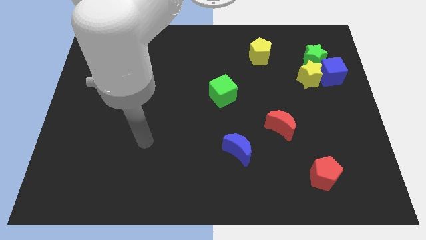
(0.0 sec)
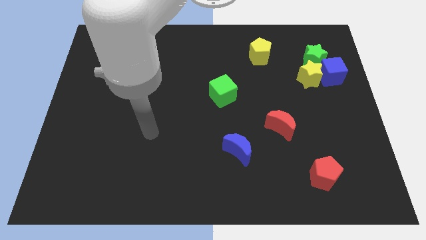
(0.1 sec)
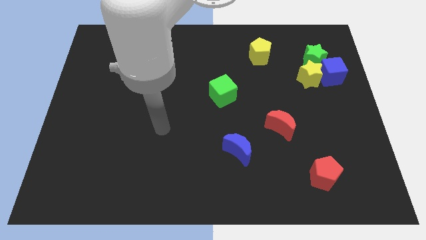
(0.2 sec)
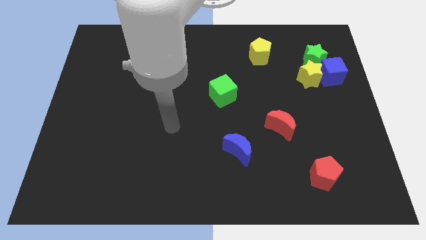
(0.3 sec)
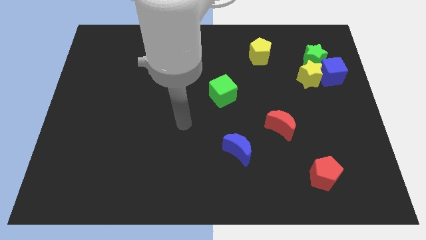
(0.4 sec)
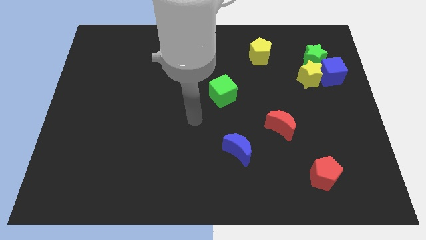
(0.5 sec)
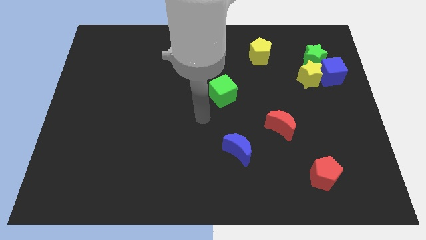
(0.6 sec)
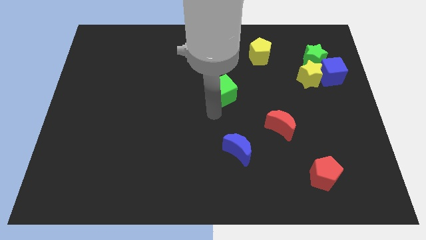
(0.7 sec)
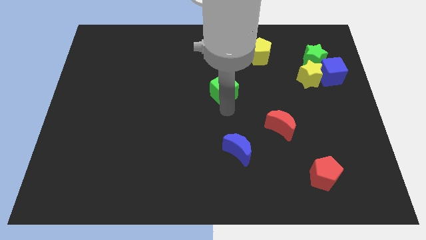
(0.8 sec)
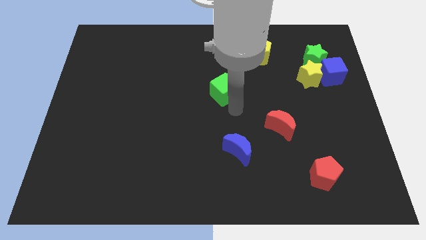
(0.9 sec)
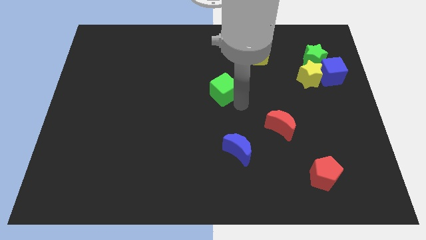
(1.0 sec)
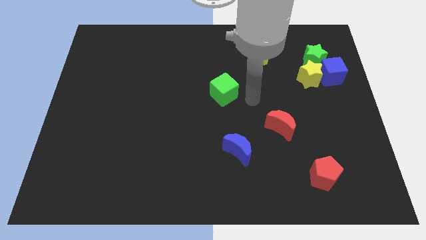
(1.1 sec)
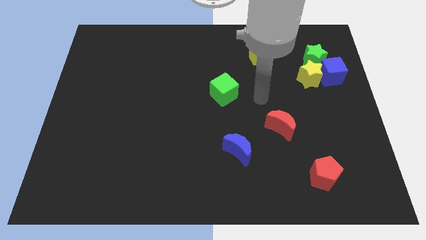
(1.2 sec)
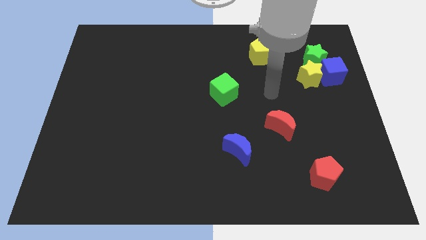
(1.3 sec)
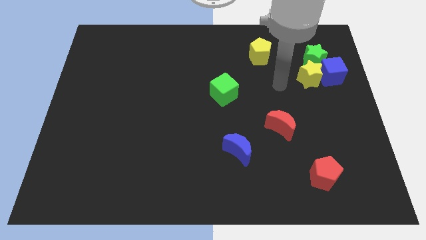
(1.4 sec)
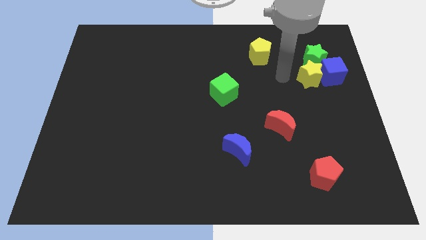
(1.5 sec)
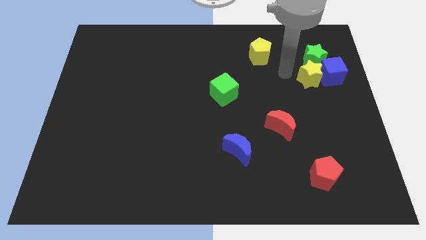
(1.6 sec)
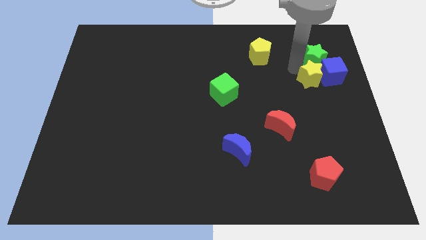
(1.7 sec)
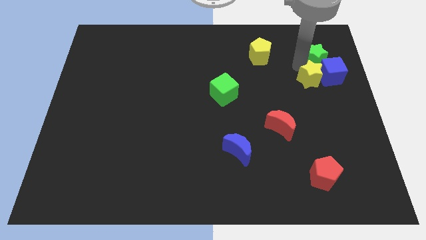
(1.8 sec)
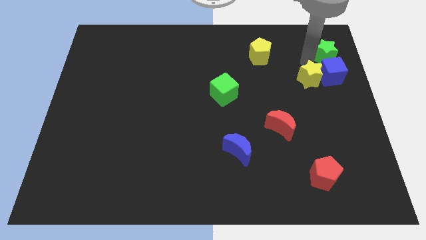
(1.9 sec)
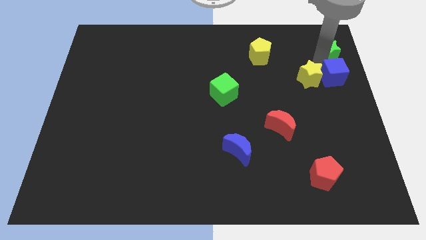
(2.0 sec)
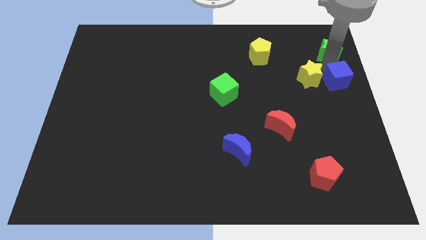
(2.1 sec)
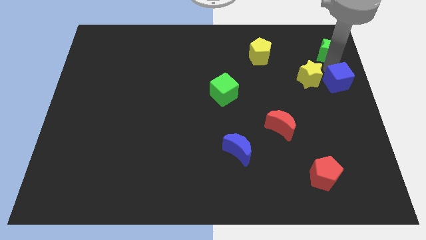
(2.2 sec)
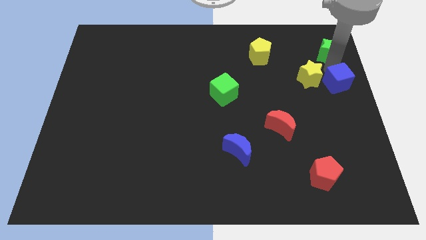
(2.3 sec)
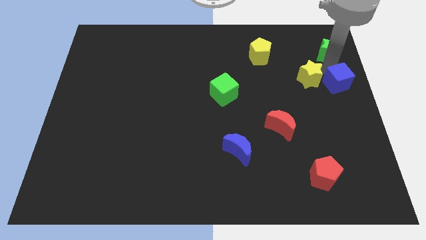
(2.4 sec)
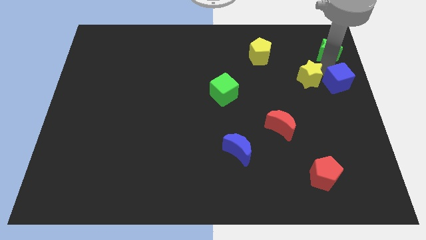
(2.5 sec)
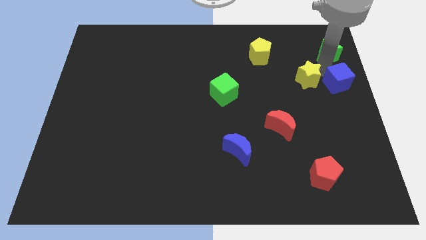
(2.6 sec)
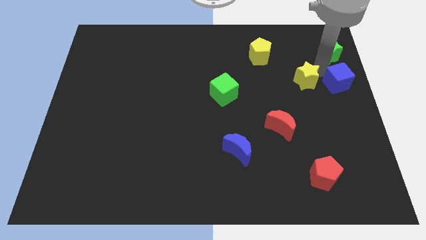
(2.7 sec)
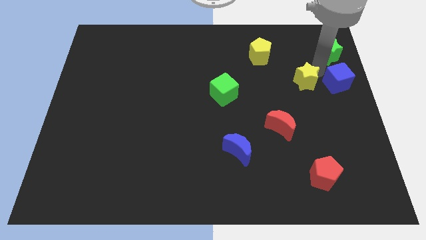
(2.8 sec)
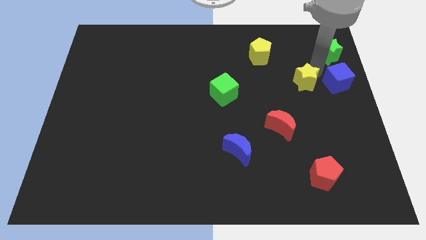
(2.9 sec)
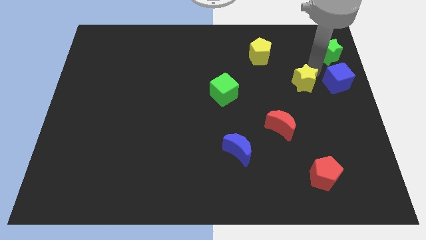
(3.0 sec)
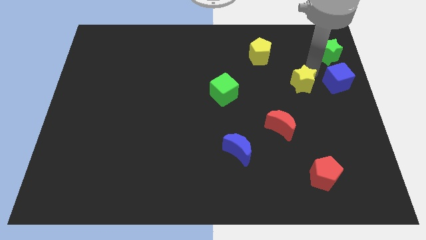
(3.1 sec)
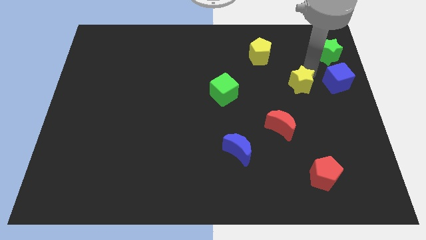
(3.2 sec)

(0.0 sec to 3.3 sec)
separate the yellow star from the blue cube and green star

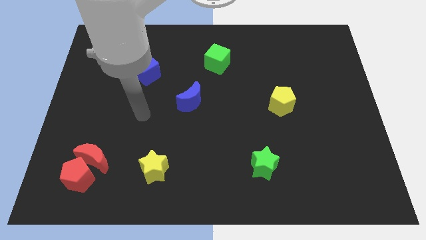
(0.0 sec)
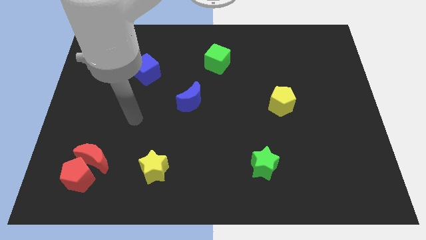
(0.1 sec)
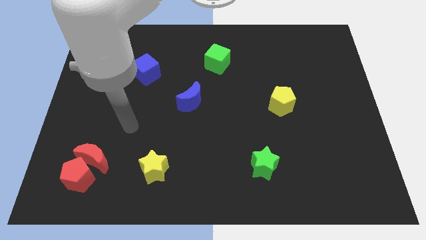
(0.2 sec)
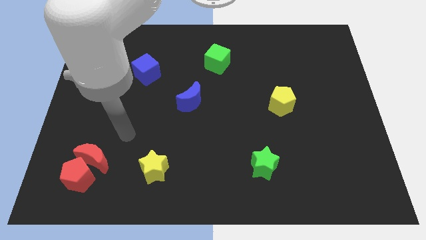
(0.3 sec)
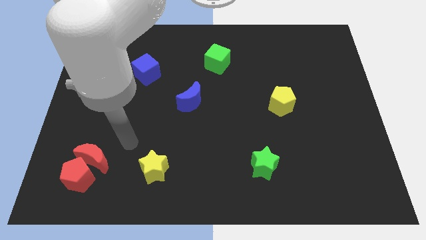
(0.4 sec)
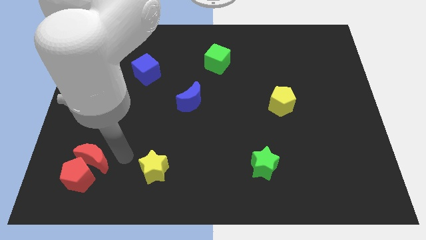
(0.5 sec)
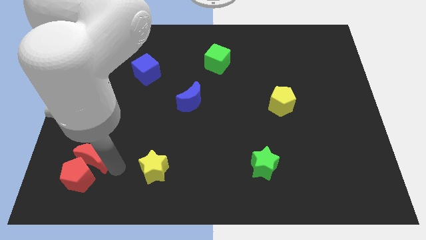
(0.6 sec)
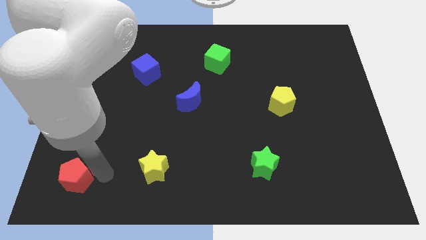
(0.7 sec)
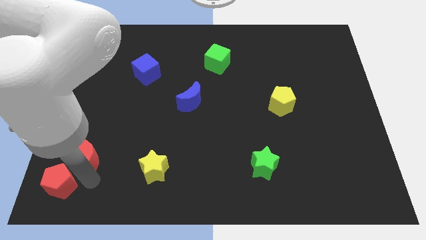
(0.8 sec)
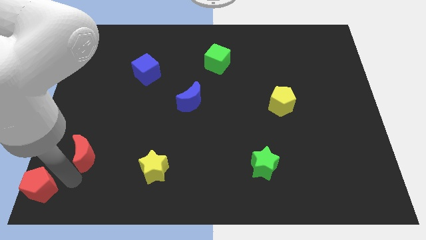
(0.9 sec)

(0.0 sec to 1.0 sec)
pull the red moon apart from the red pentagon

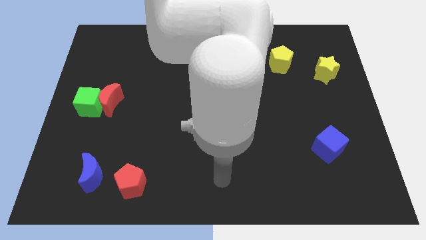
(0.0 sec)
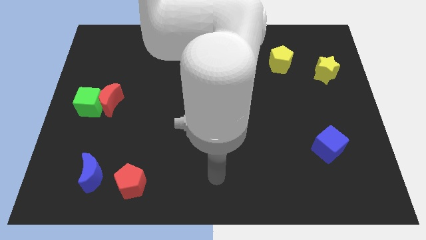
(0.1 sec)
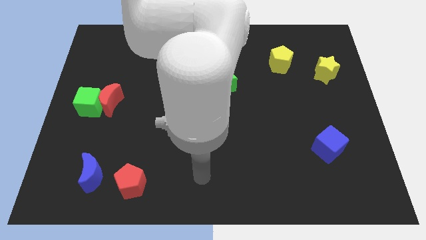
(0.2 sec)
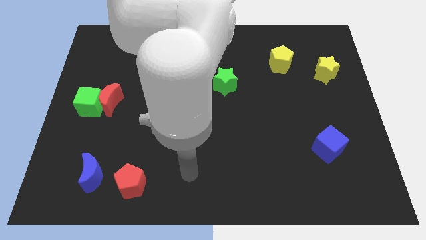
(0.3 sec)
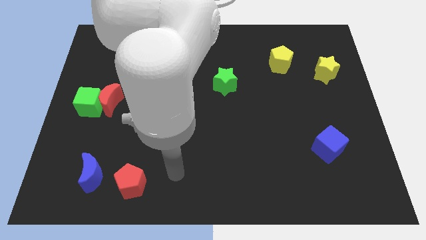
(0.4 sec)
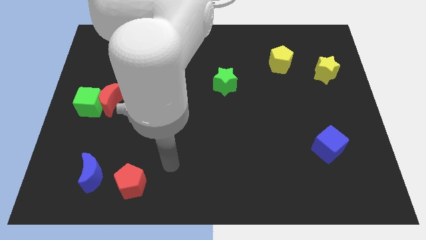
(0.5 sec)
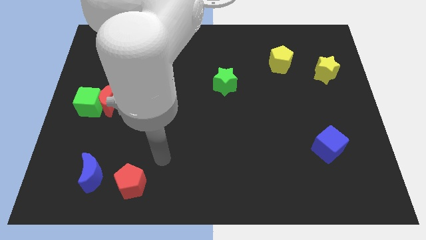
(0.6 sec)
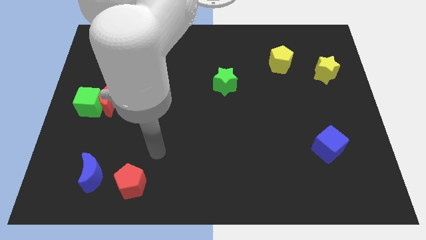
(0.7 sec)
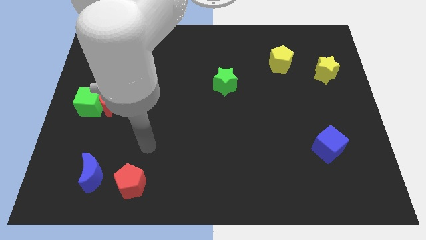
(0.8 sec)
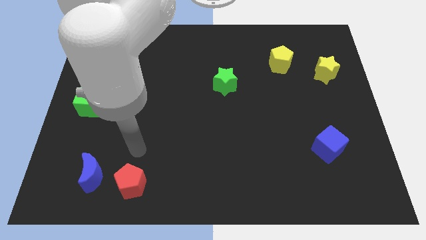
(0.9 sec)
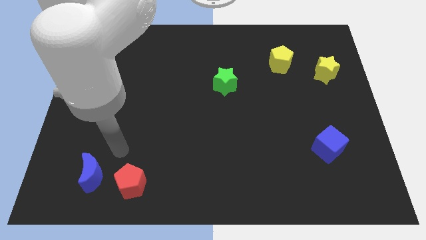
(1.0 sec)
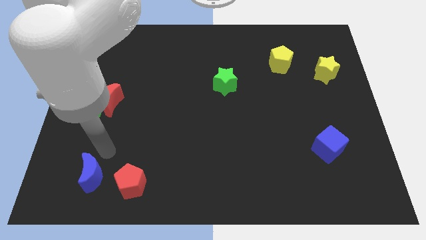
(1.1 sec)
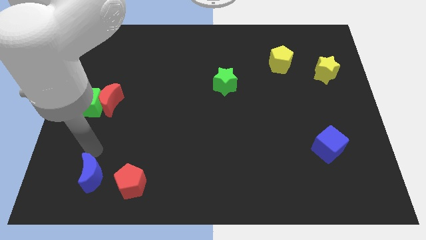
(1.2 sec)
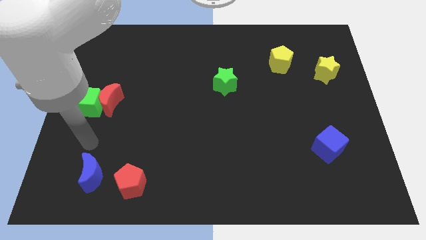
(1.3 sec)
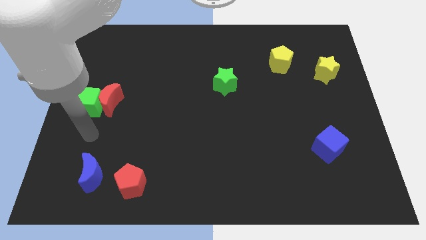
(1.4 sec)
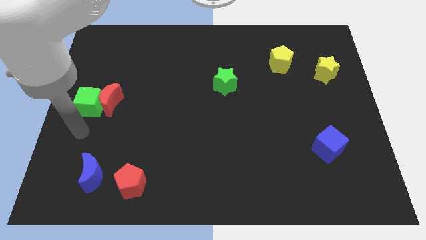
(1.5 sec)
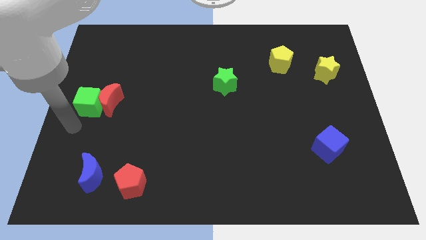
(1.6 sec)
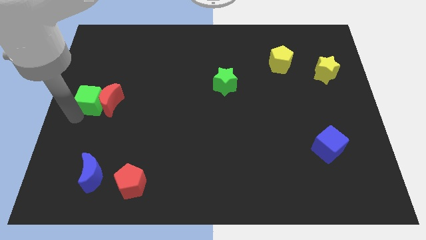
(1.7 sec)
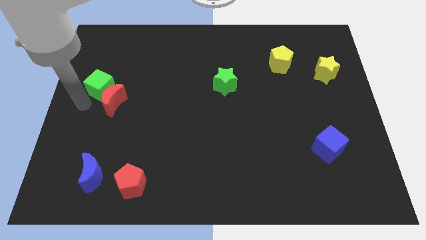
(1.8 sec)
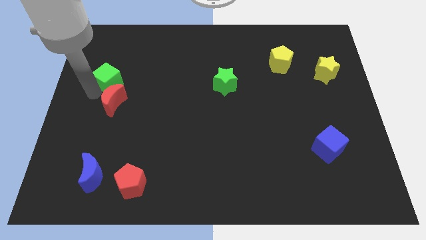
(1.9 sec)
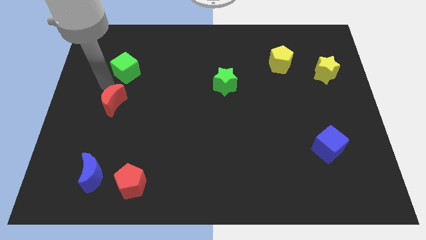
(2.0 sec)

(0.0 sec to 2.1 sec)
separate the red moon from the green cube

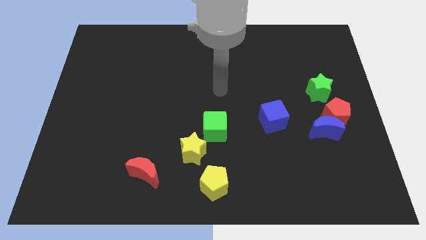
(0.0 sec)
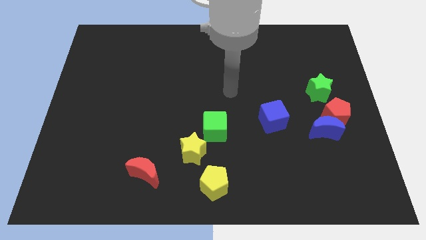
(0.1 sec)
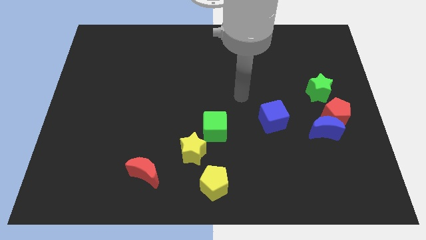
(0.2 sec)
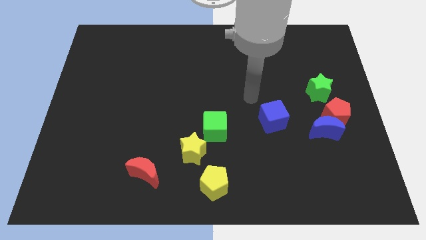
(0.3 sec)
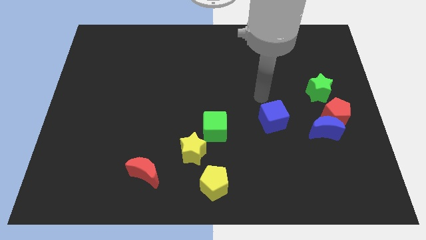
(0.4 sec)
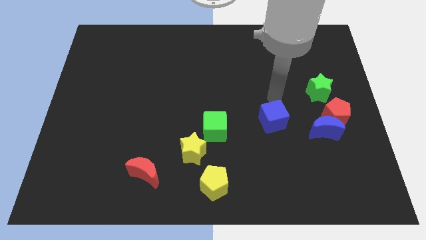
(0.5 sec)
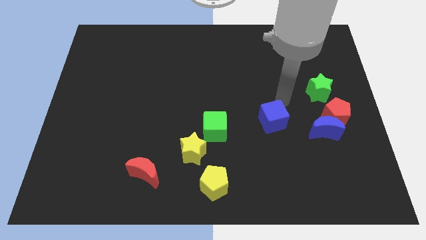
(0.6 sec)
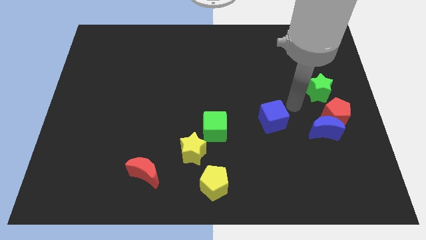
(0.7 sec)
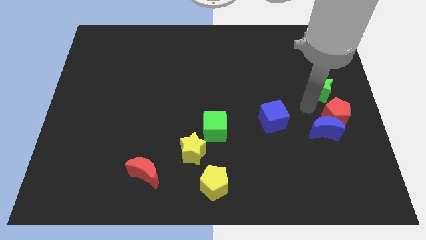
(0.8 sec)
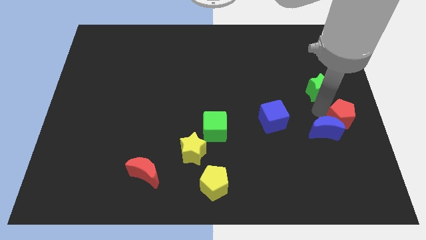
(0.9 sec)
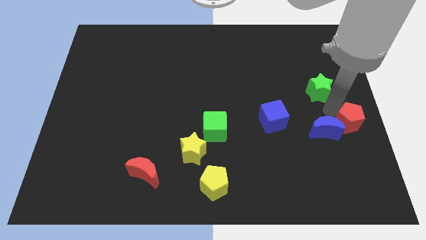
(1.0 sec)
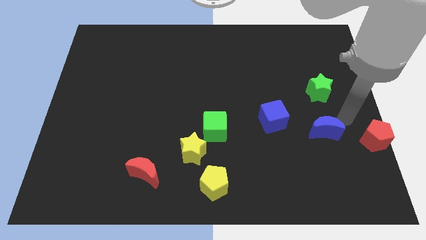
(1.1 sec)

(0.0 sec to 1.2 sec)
separate the blue moon from the red pentagon

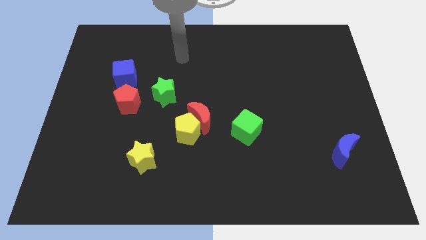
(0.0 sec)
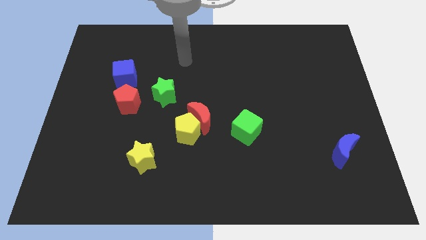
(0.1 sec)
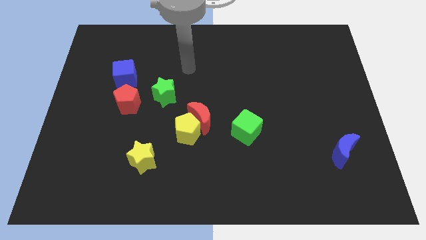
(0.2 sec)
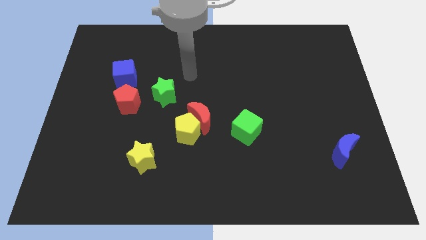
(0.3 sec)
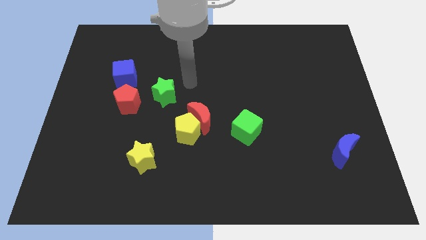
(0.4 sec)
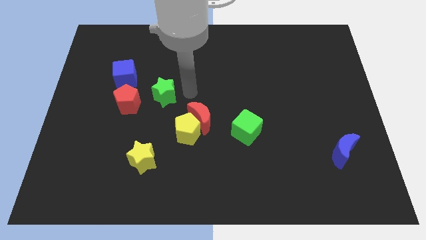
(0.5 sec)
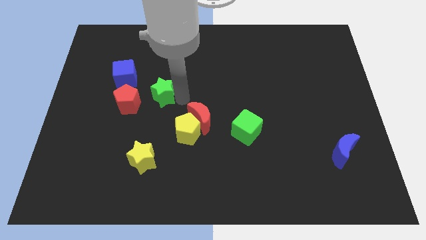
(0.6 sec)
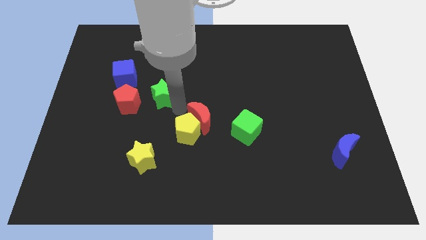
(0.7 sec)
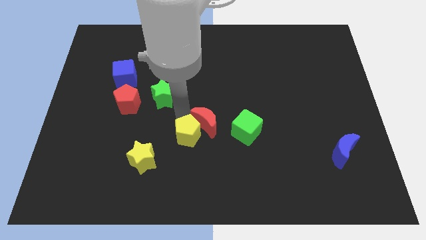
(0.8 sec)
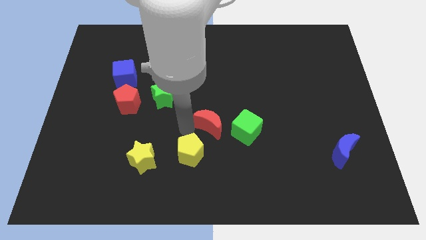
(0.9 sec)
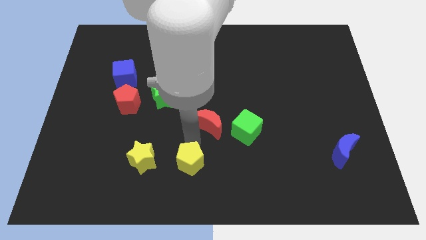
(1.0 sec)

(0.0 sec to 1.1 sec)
separate the red moon from the yellow pentagon

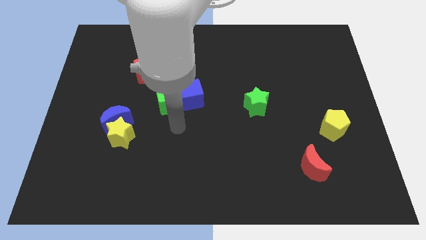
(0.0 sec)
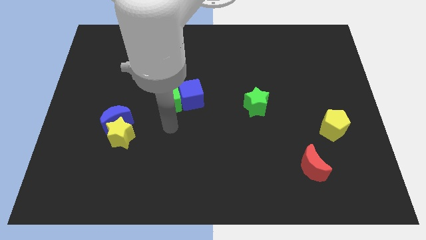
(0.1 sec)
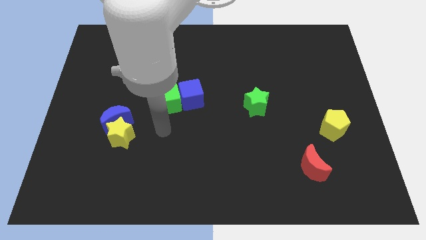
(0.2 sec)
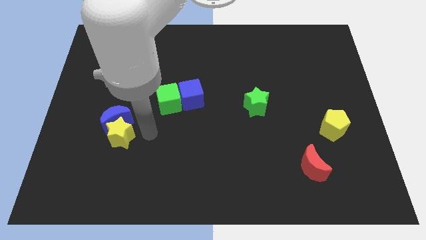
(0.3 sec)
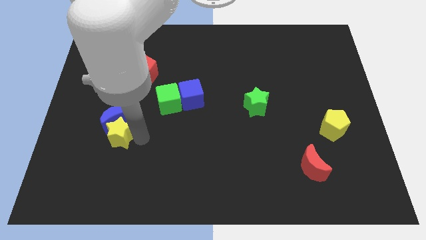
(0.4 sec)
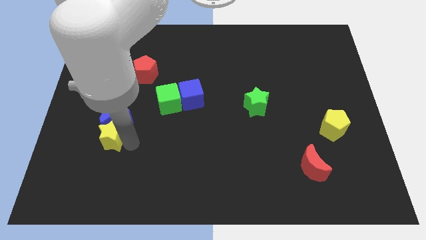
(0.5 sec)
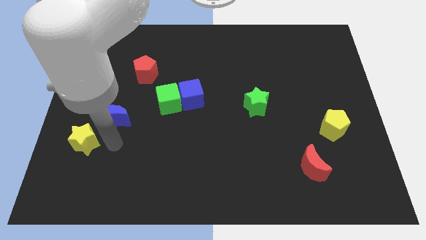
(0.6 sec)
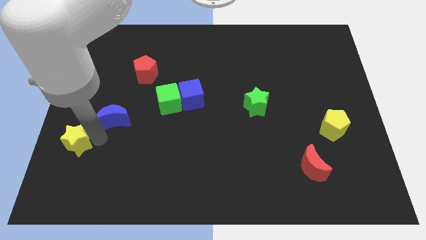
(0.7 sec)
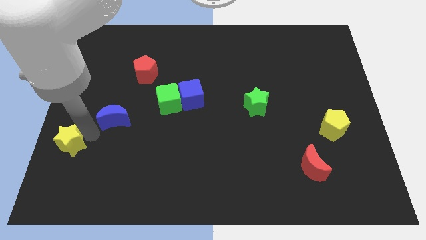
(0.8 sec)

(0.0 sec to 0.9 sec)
pull the blue moon apart from the yellow star
